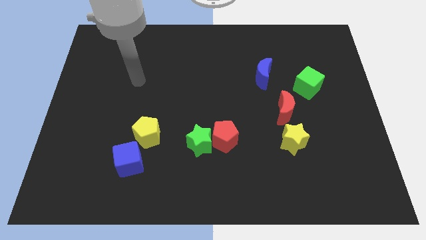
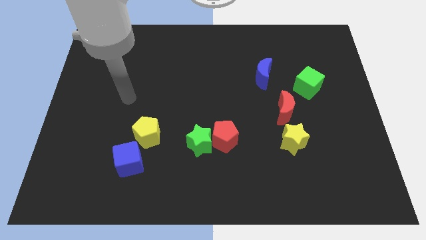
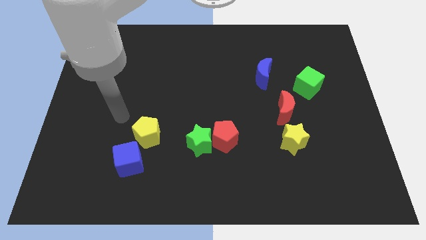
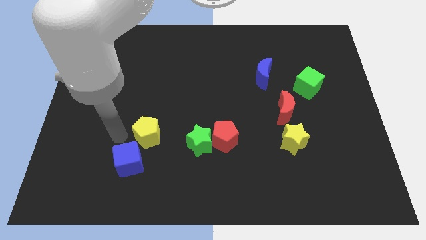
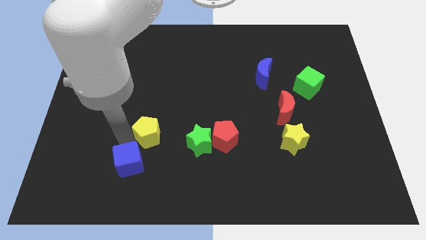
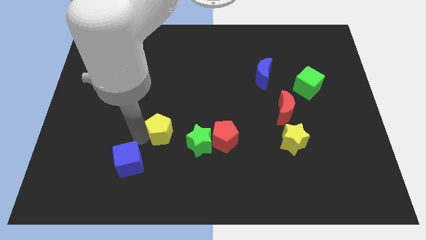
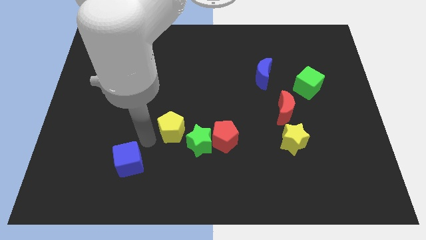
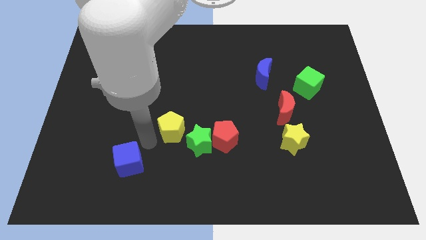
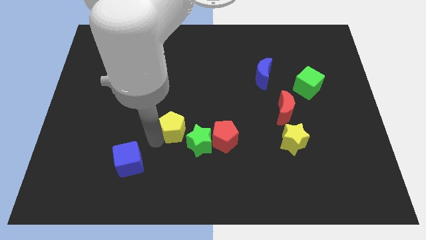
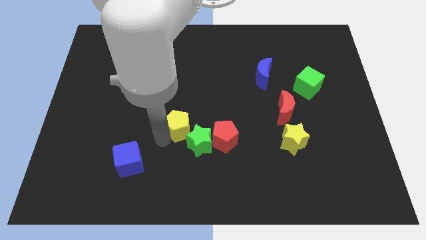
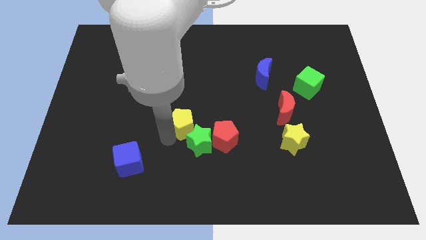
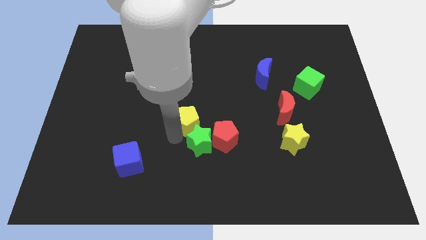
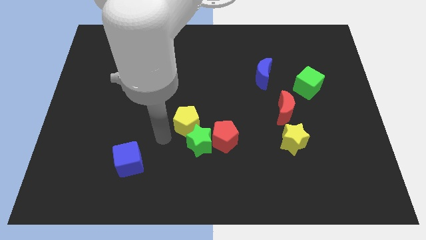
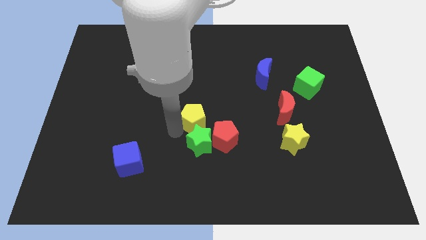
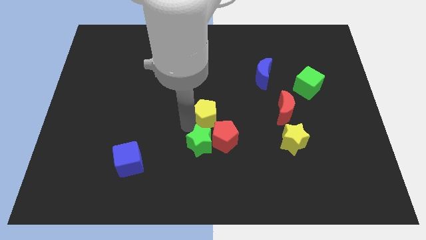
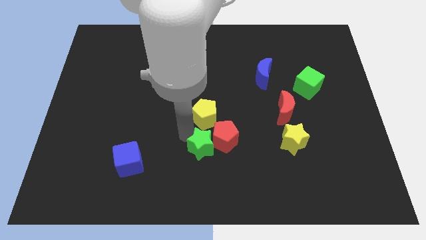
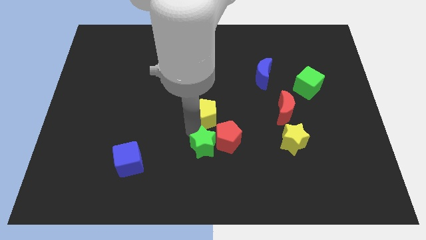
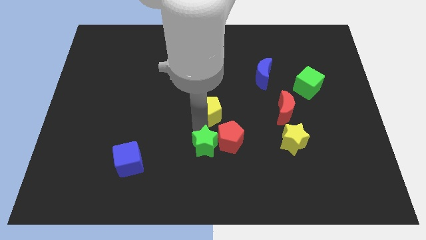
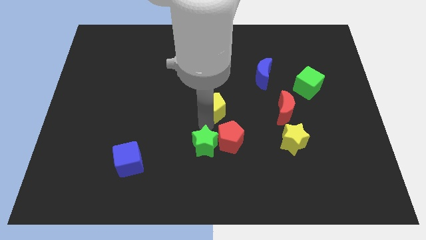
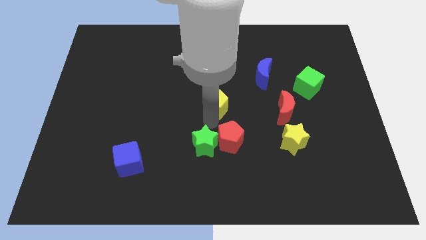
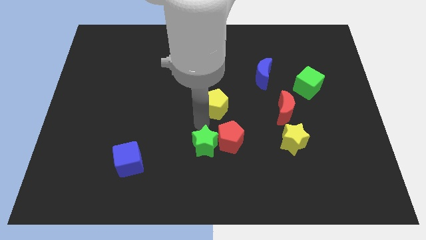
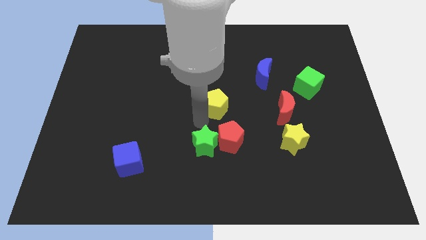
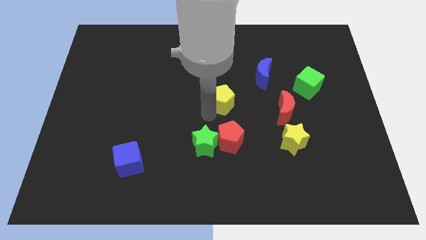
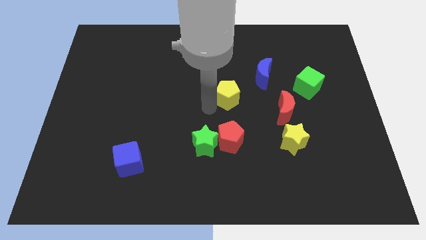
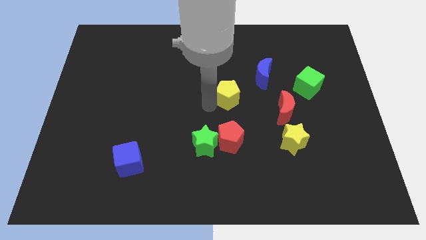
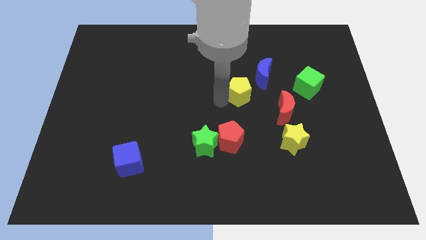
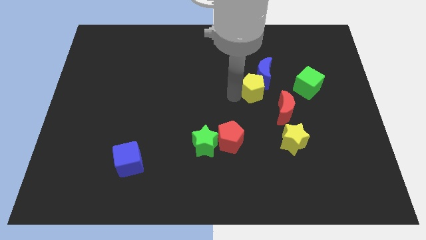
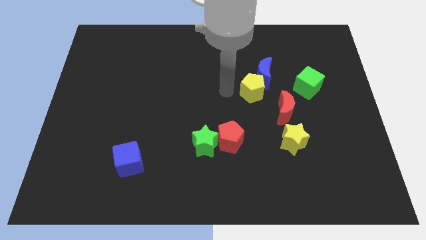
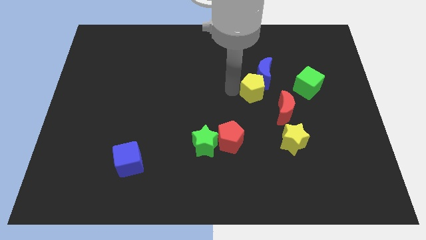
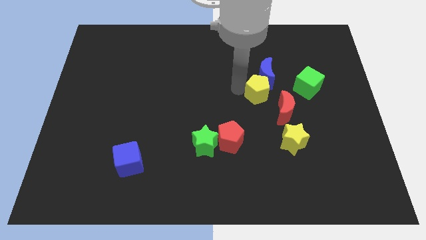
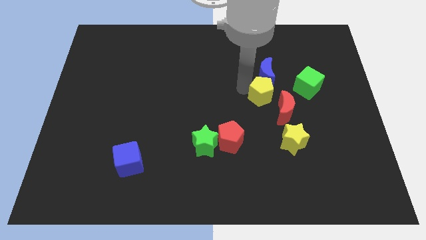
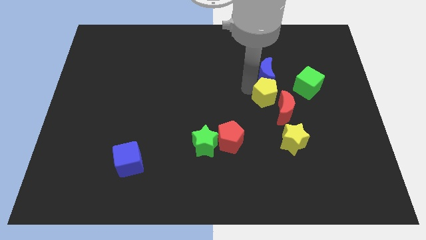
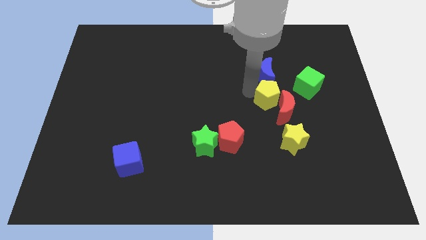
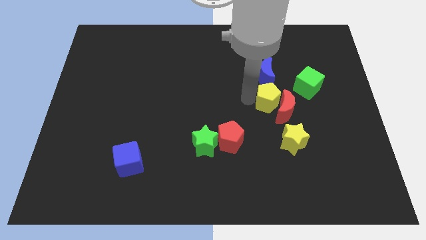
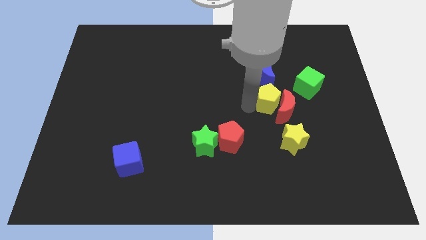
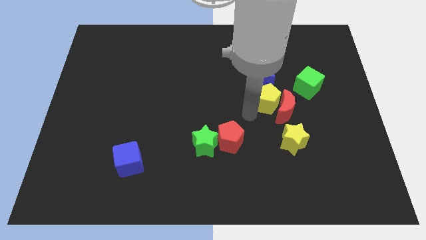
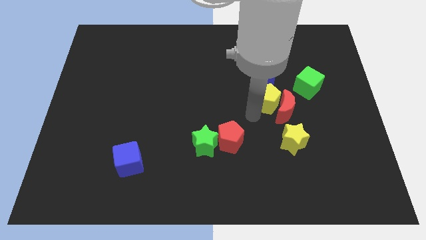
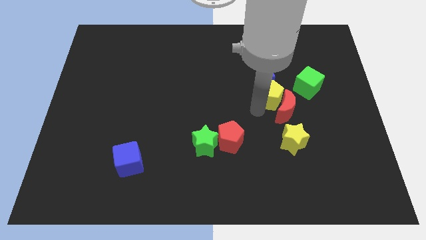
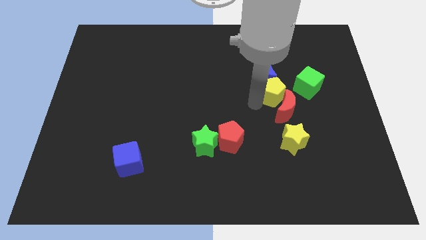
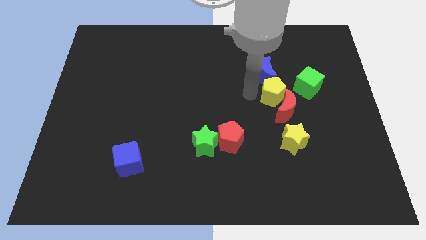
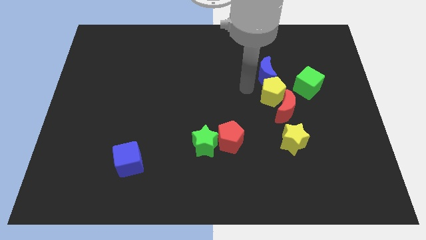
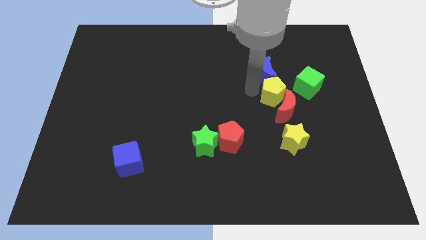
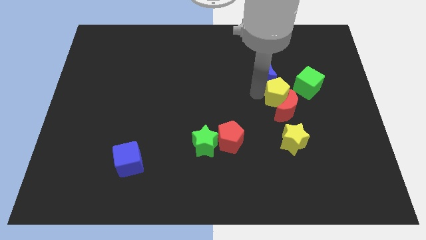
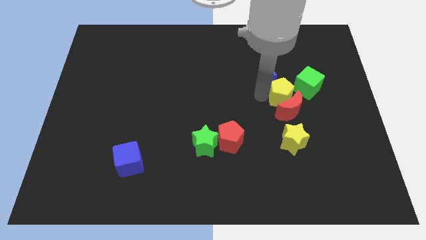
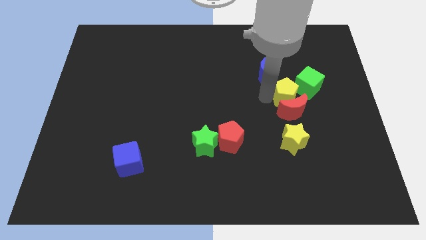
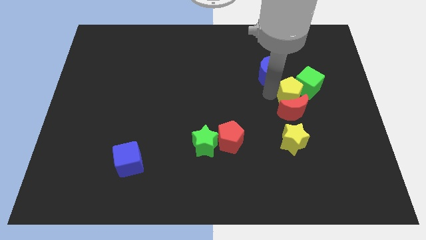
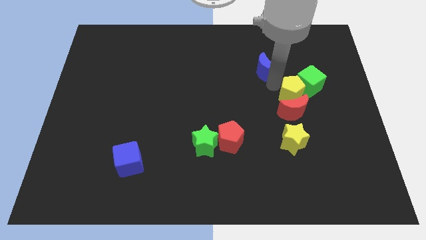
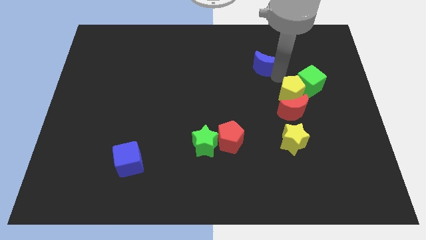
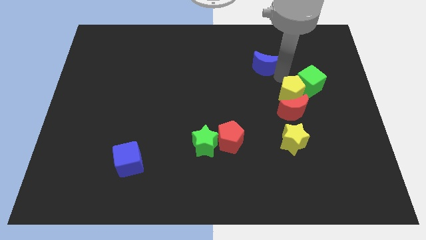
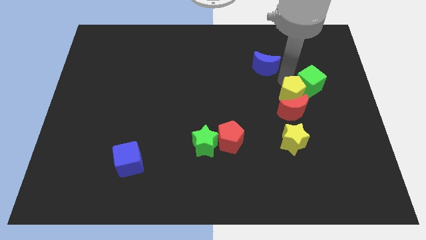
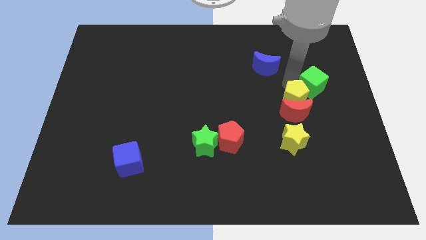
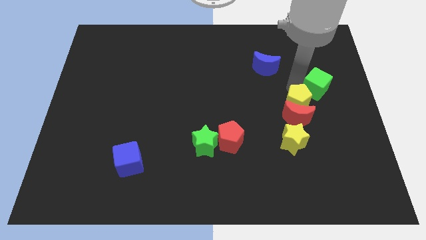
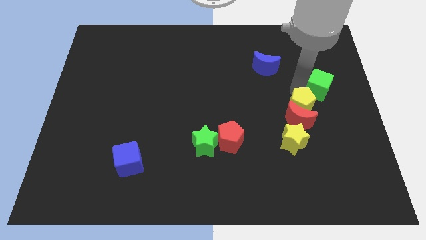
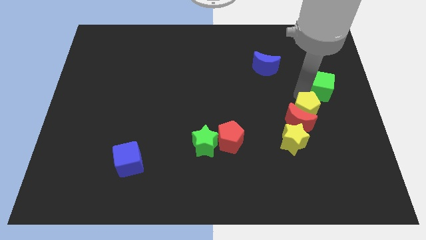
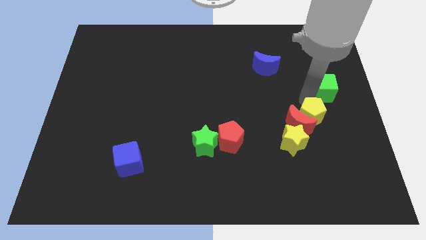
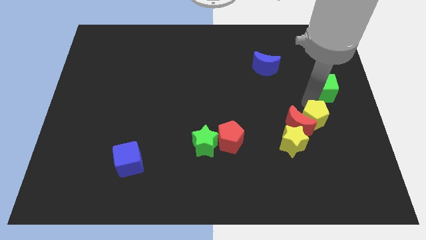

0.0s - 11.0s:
push the yellow pentagon diagonally down and to the right of the red moon

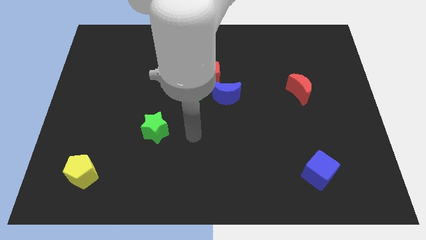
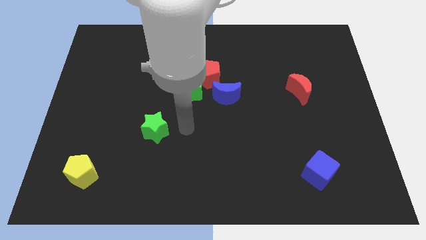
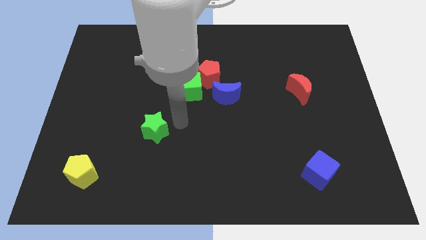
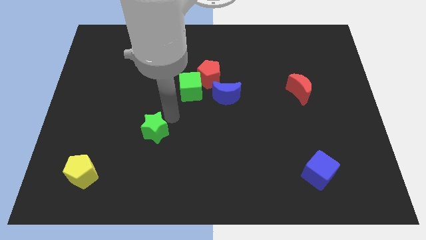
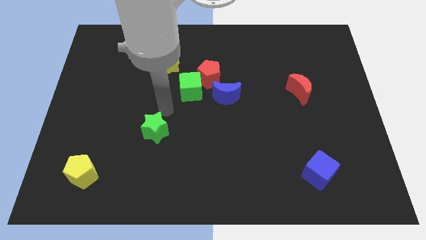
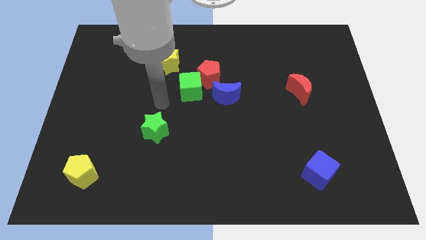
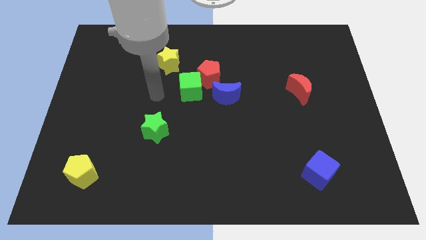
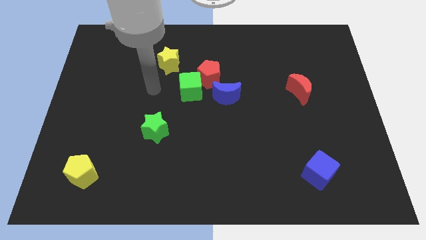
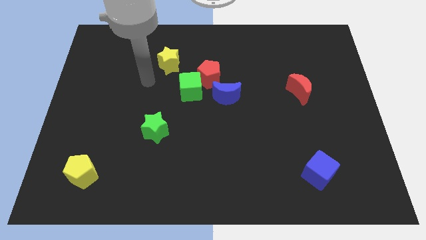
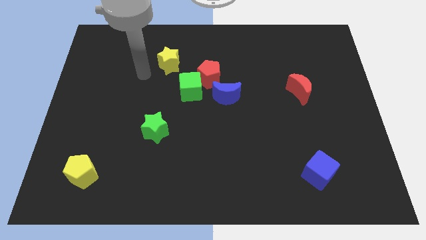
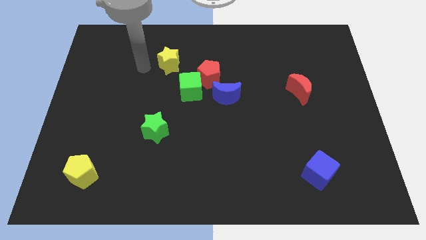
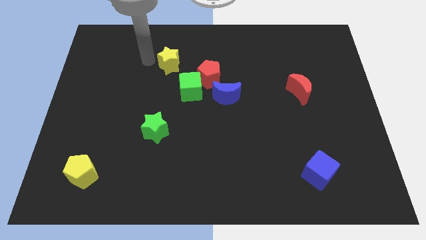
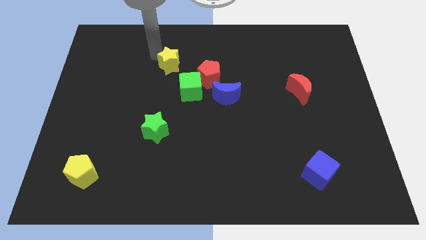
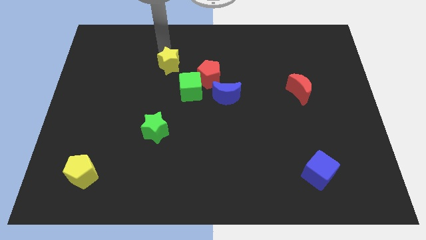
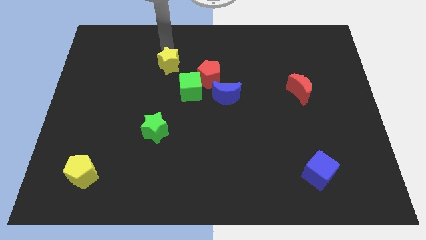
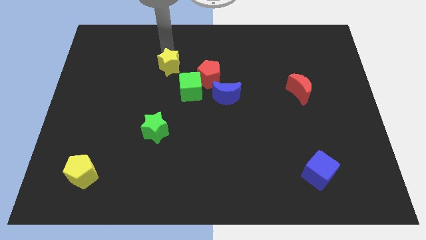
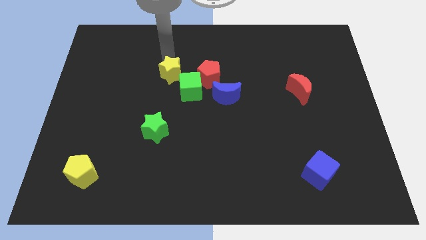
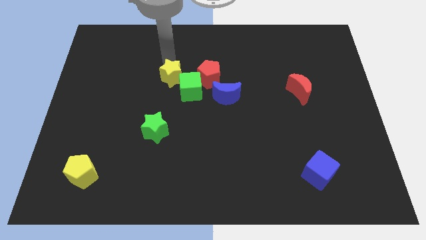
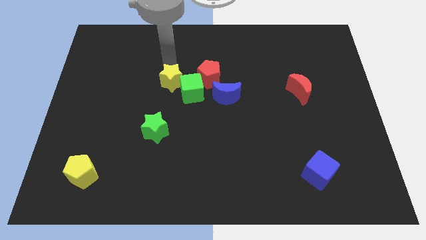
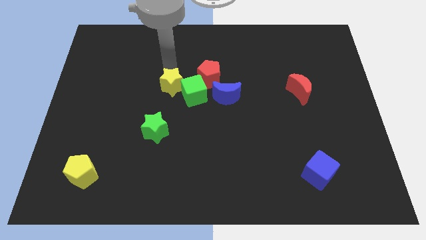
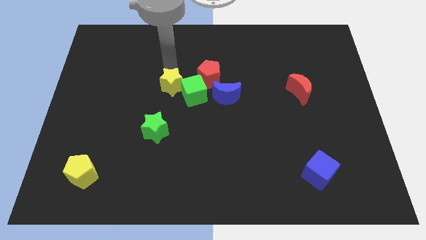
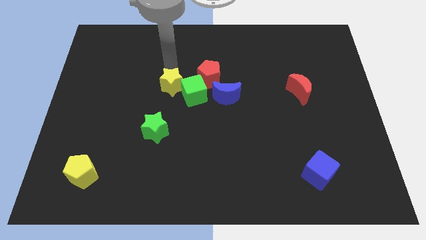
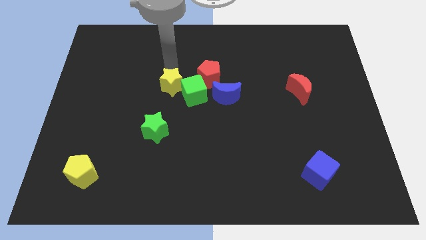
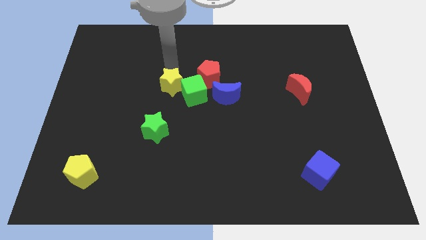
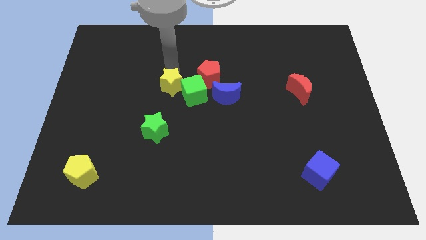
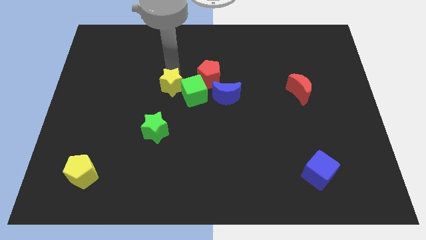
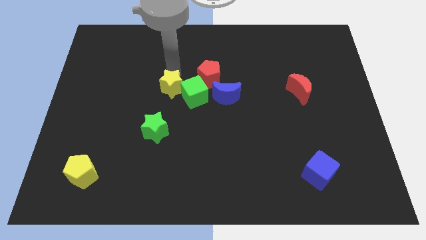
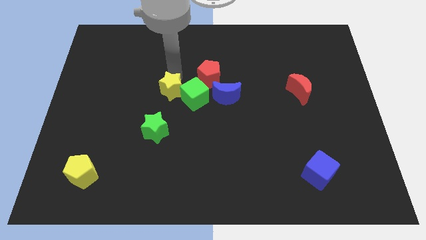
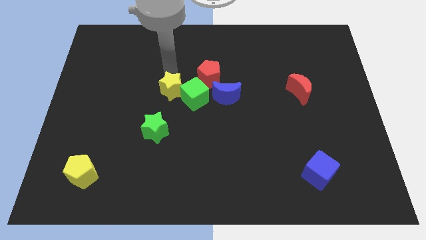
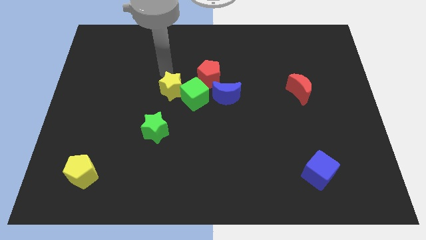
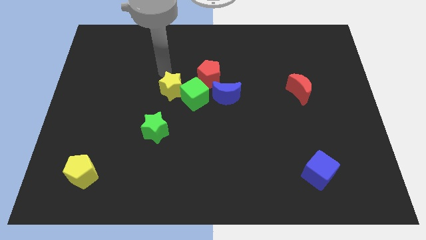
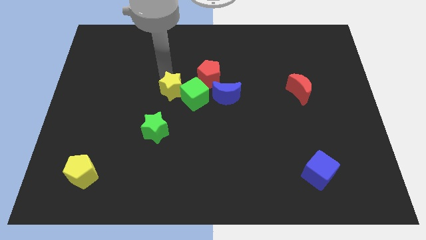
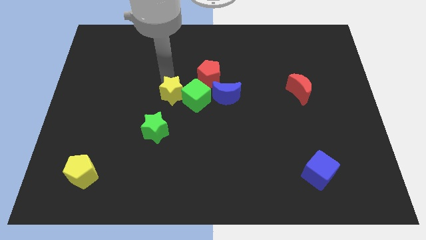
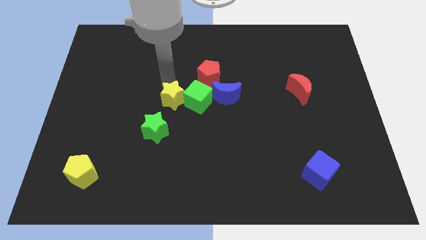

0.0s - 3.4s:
push the yellow star to the top right of the green star
